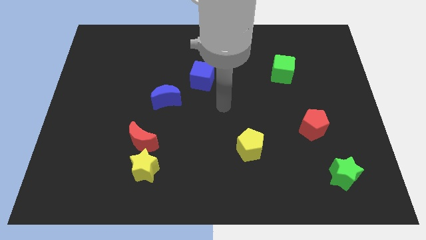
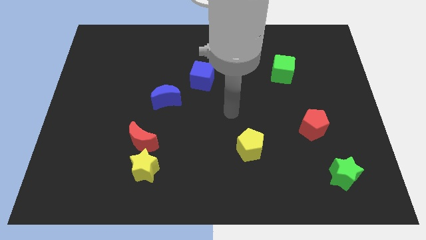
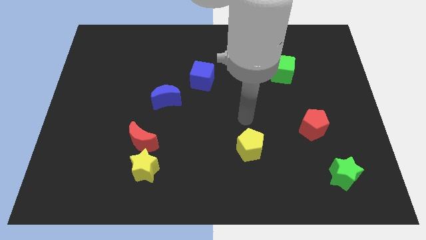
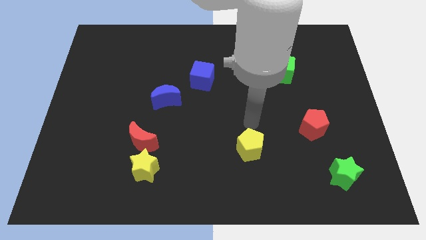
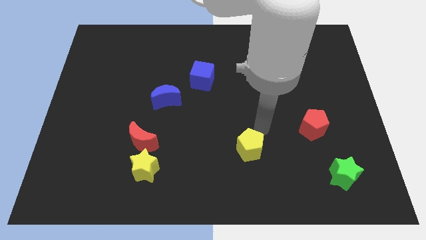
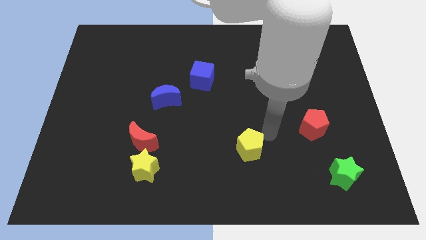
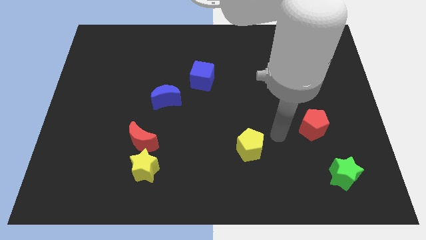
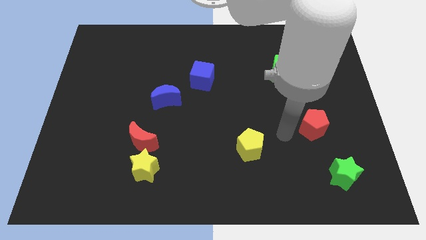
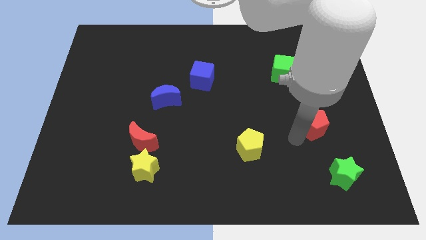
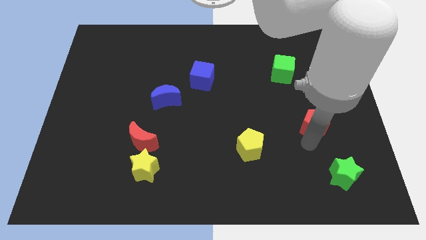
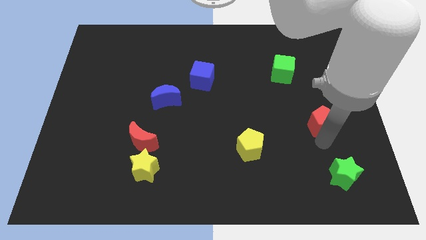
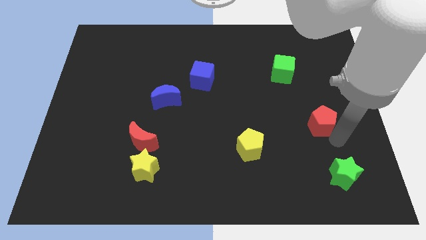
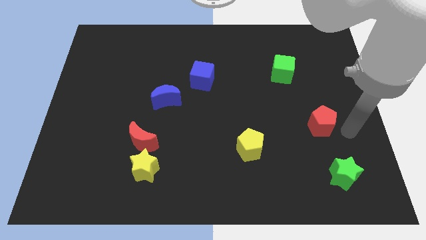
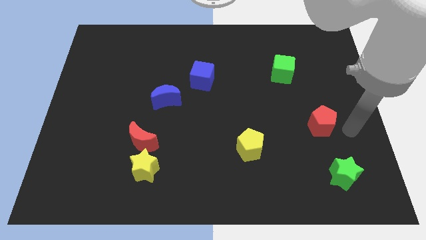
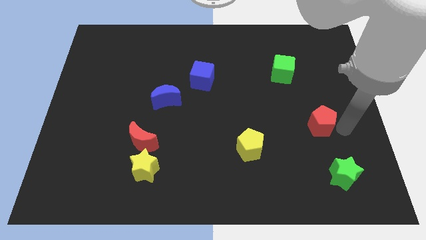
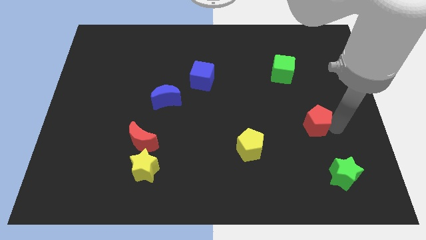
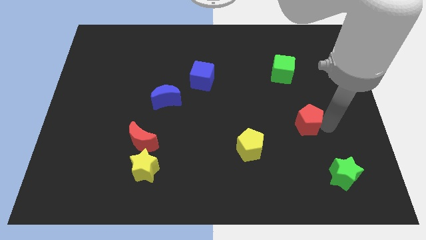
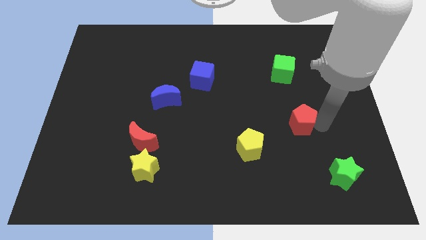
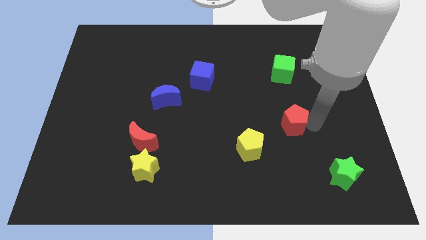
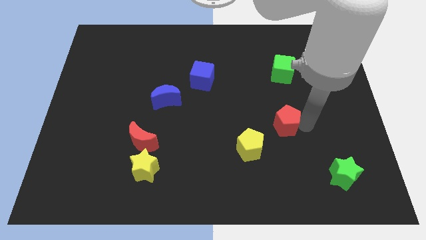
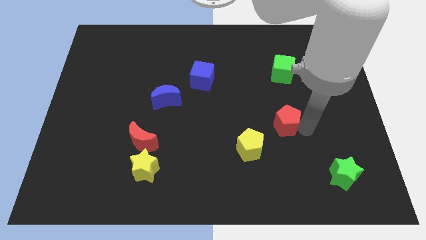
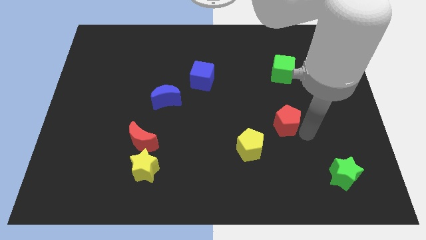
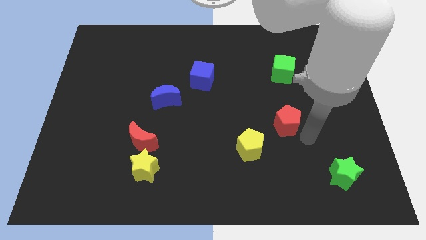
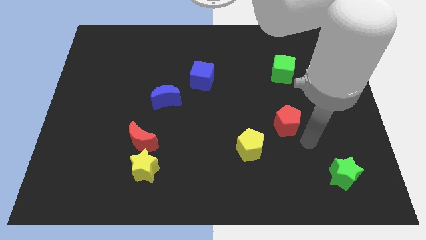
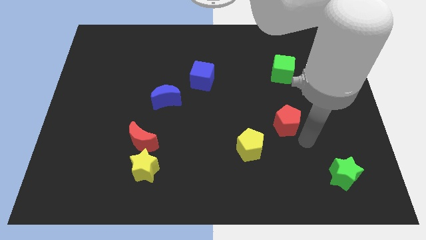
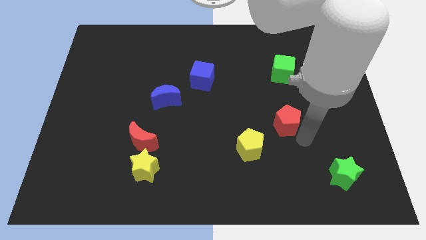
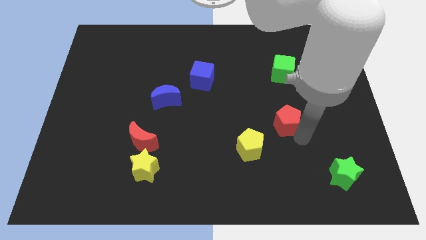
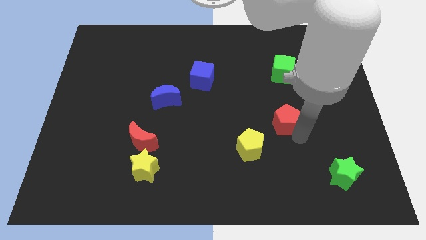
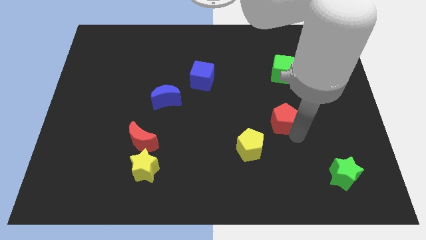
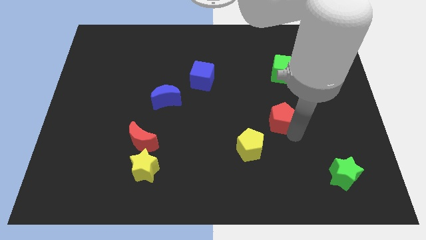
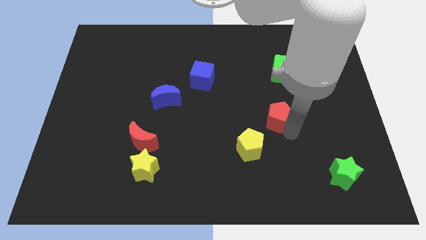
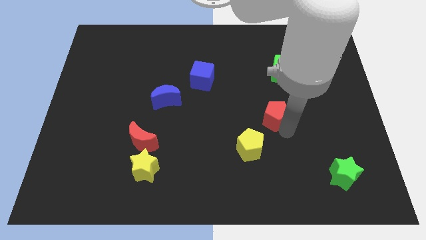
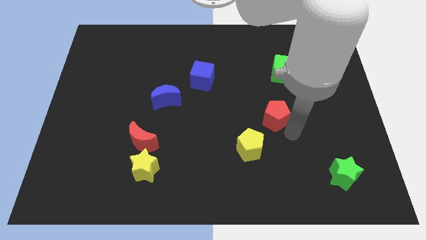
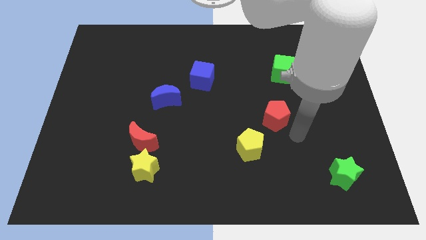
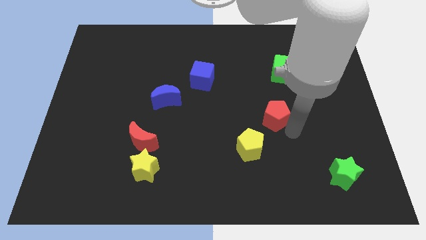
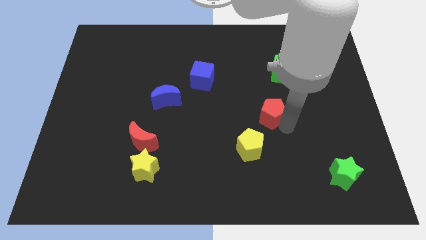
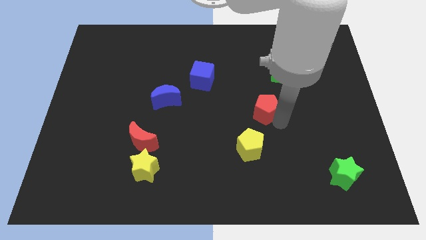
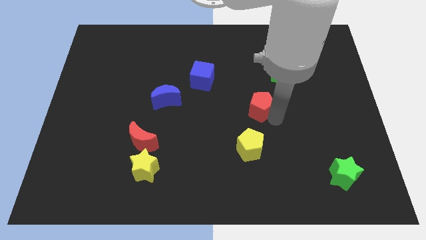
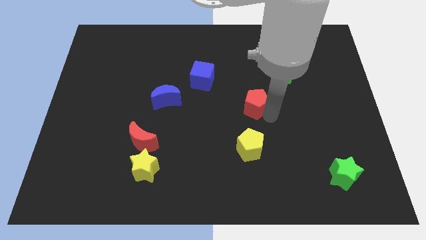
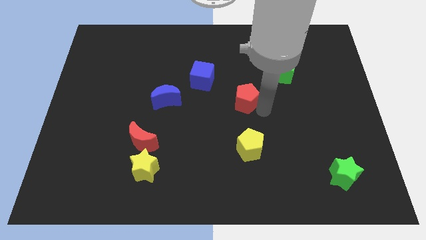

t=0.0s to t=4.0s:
push the red pentagon to the bottom right side of the blue cube

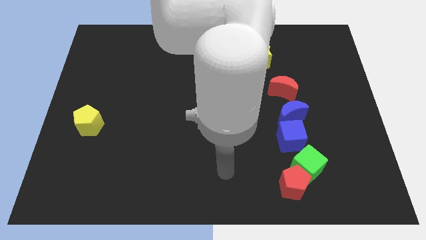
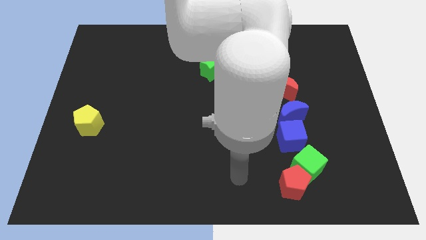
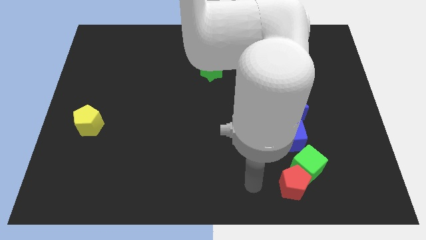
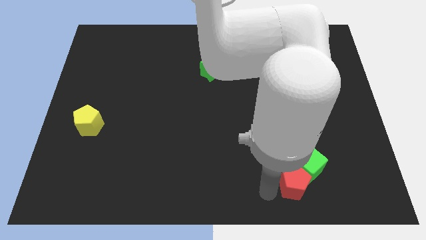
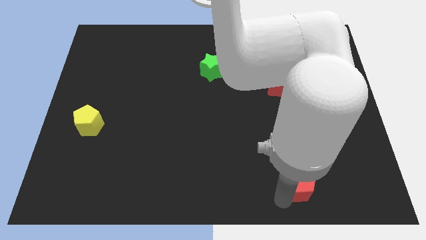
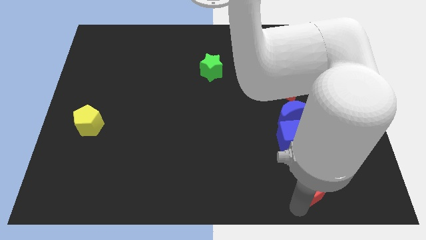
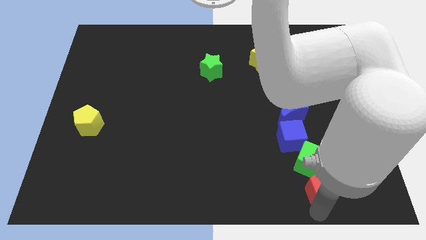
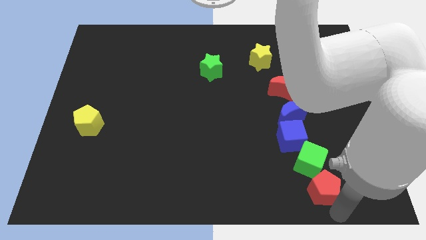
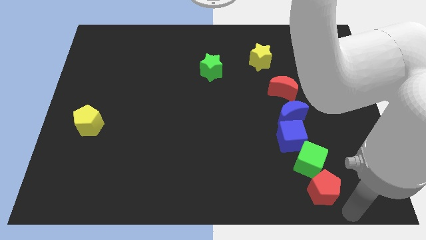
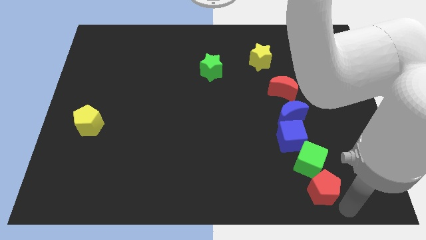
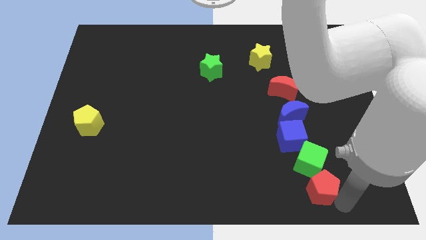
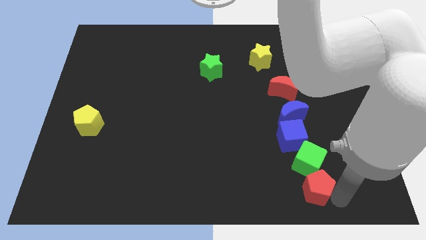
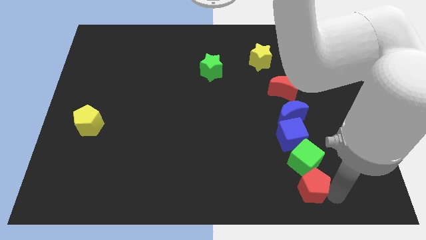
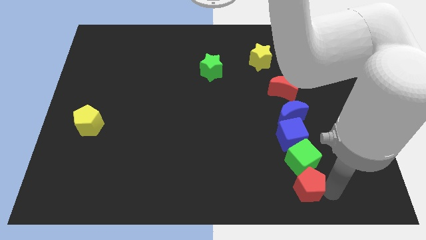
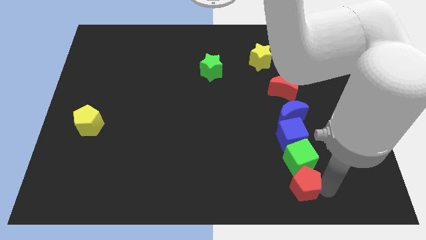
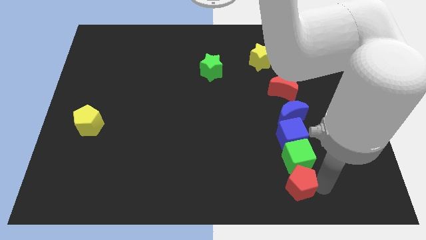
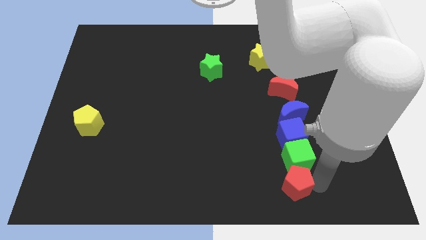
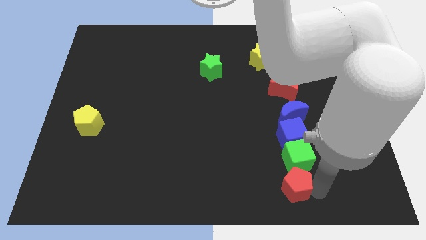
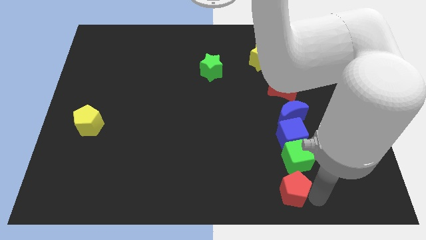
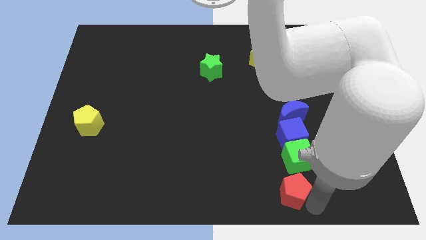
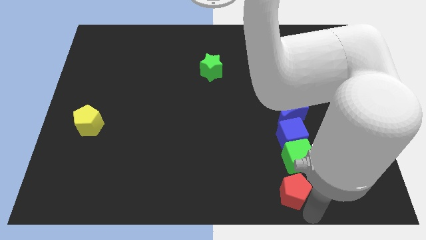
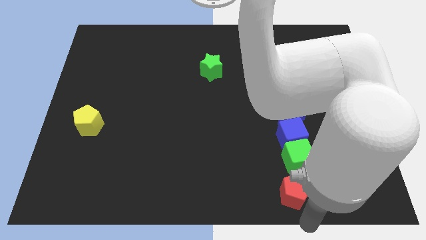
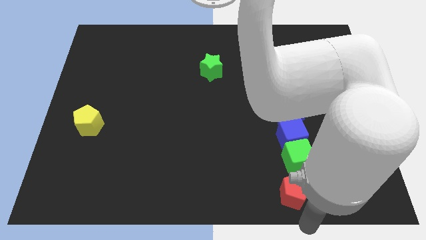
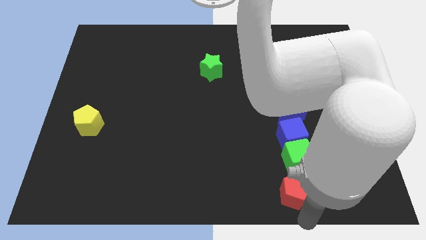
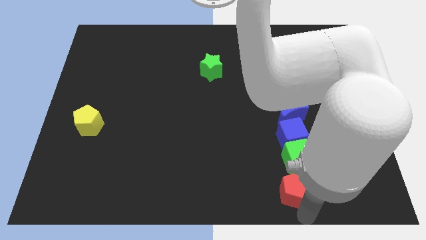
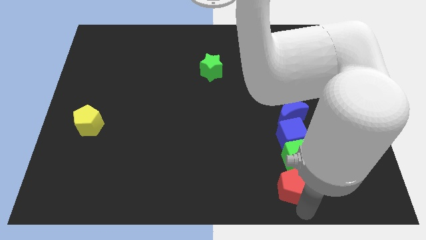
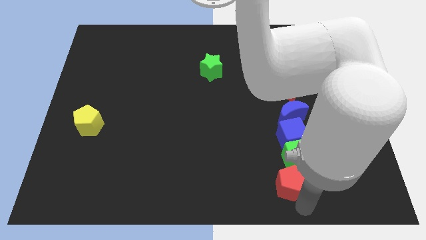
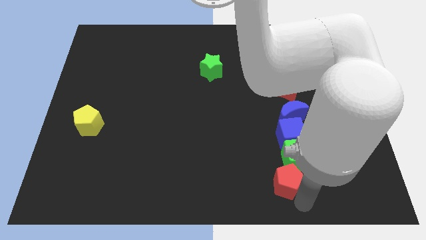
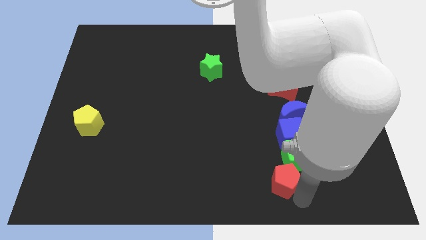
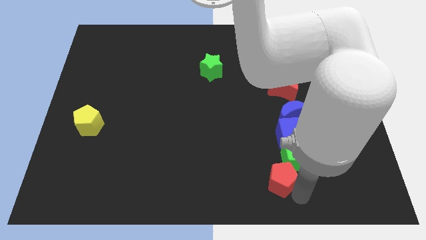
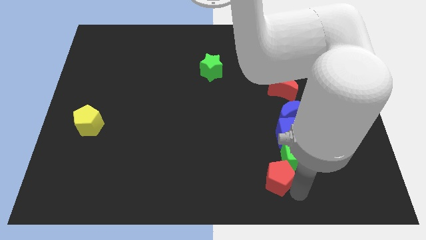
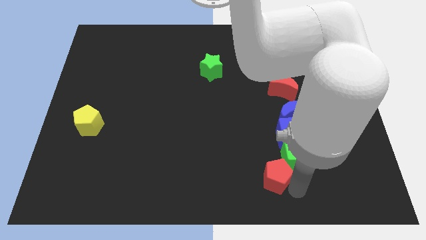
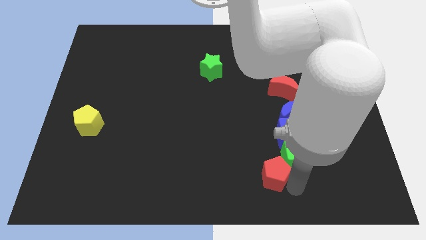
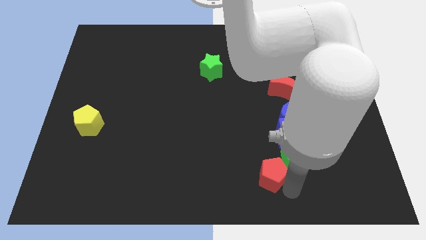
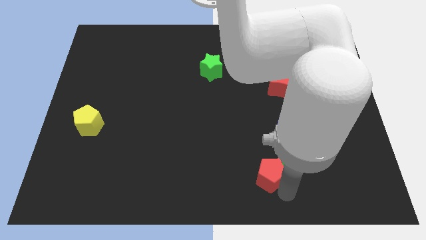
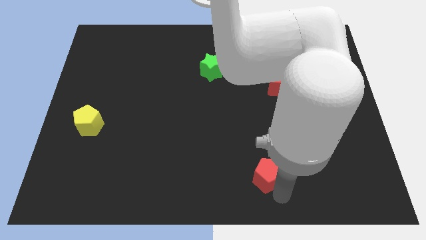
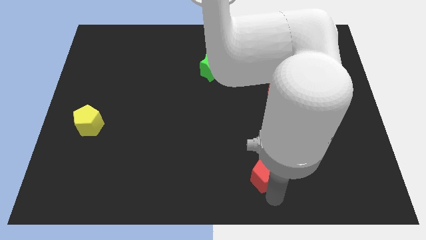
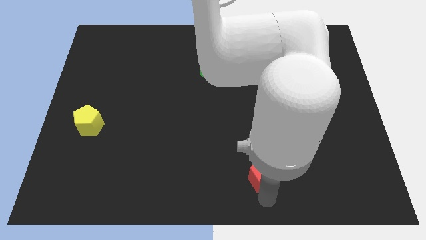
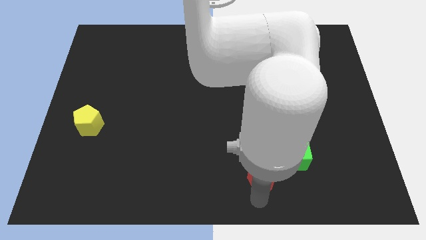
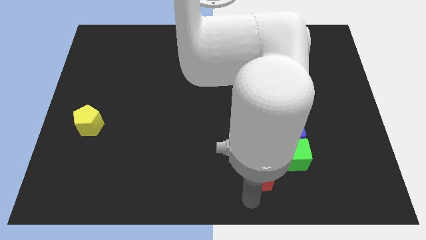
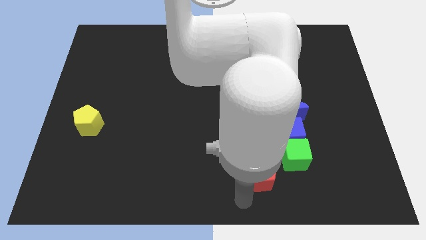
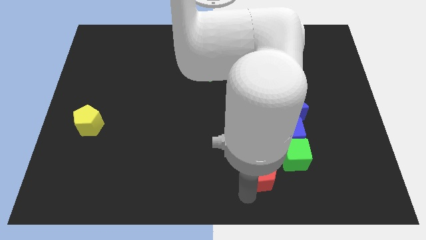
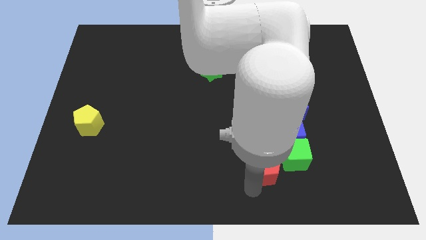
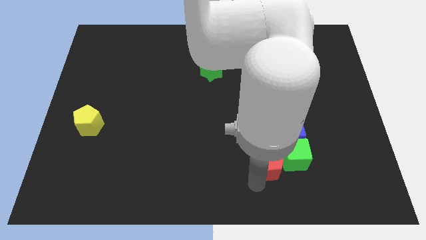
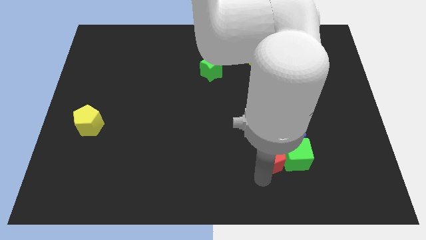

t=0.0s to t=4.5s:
slide the red pentagon diagonally up and to the left of the green cube
